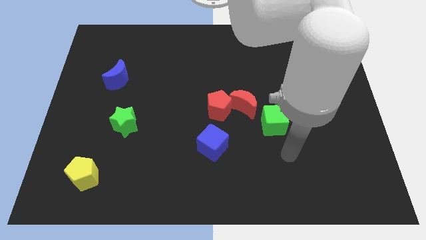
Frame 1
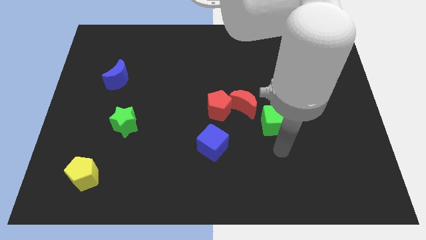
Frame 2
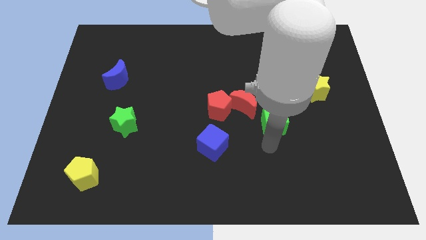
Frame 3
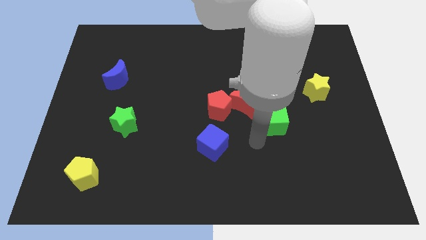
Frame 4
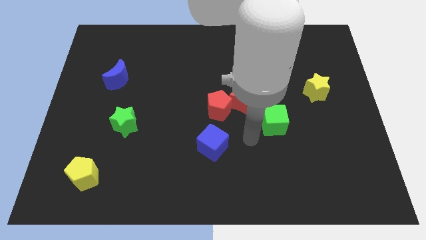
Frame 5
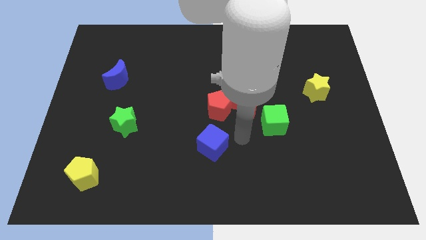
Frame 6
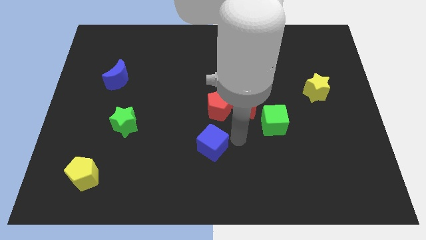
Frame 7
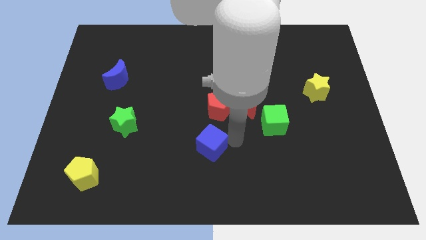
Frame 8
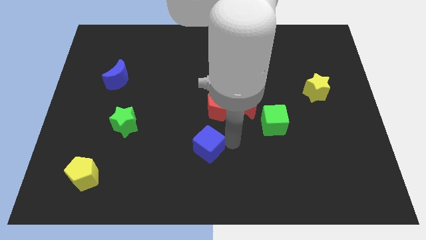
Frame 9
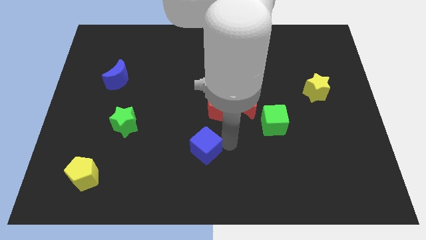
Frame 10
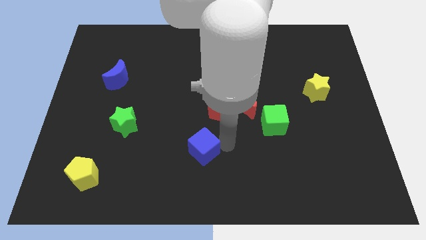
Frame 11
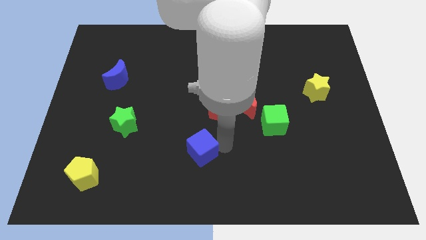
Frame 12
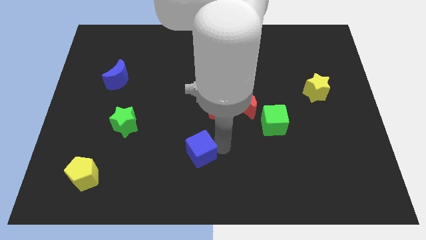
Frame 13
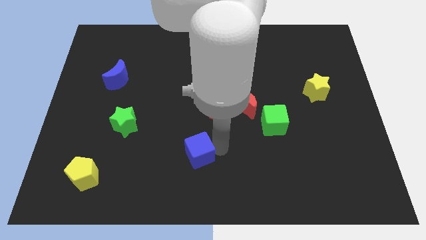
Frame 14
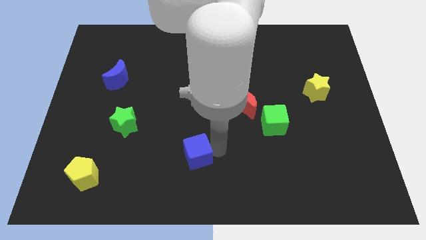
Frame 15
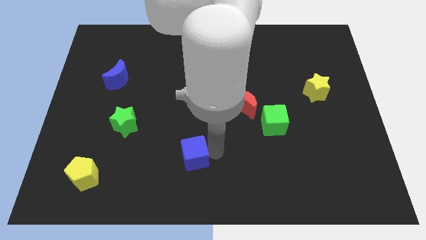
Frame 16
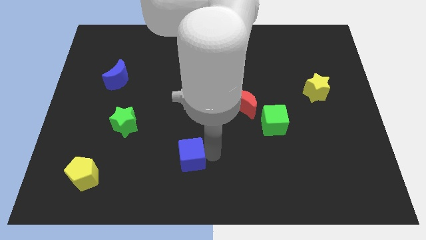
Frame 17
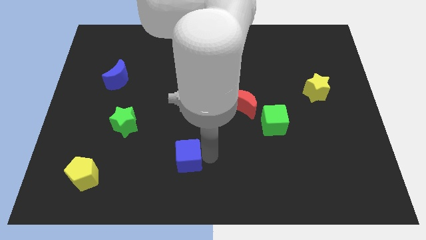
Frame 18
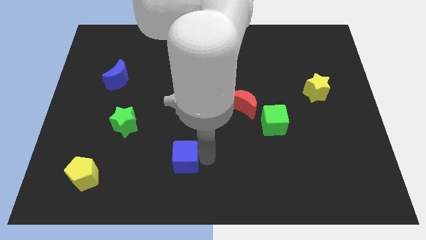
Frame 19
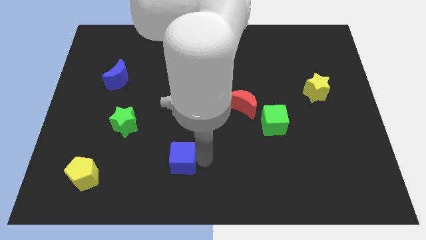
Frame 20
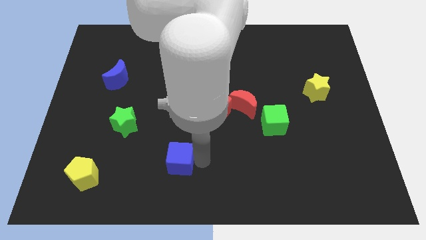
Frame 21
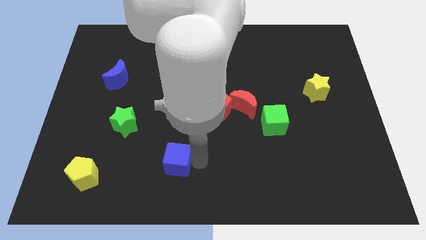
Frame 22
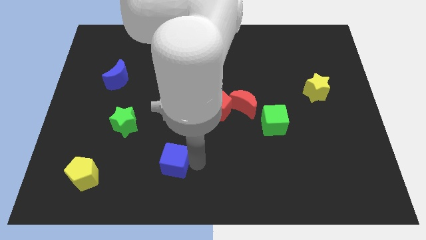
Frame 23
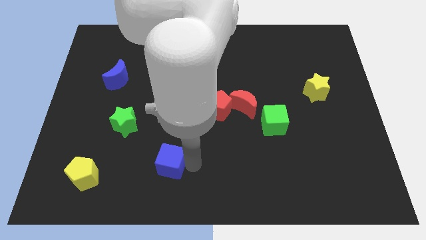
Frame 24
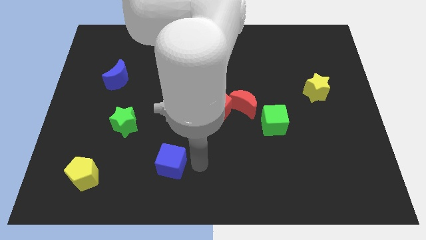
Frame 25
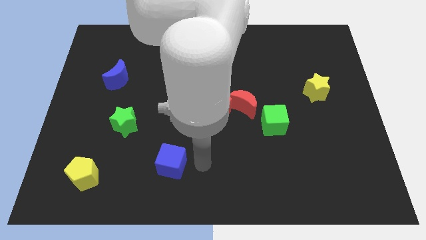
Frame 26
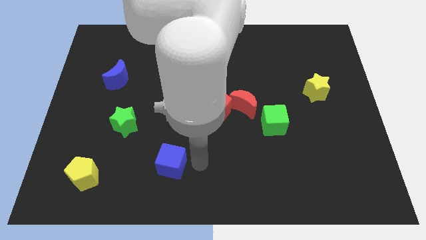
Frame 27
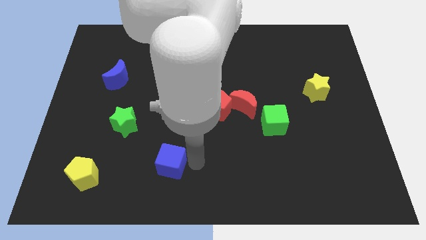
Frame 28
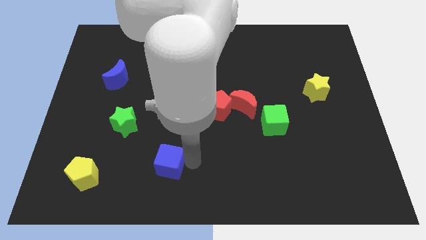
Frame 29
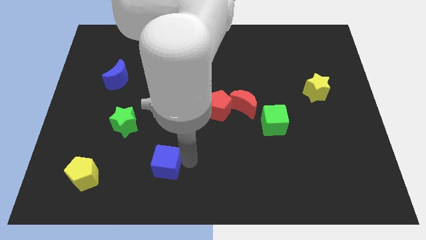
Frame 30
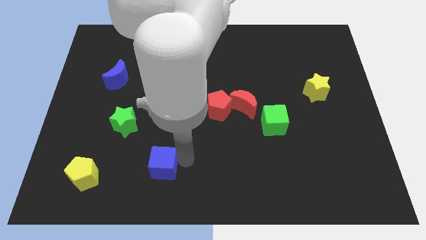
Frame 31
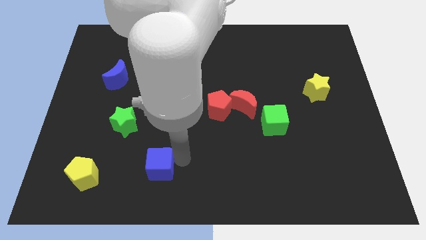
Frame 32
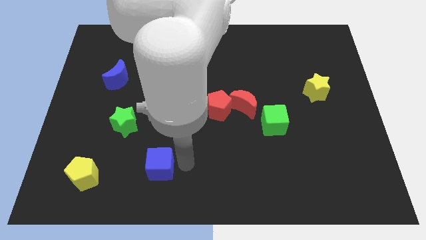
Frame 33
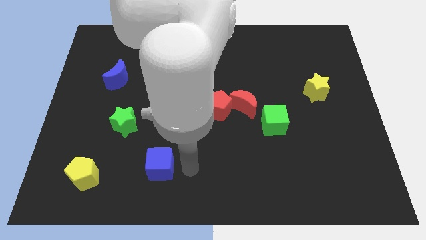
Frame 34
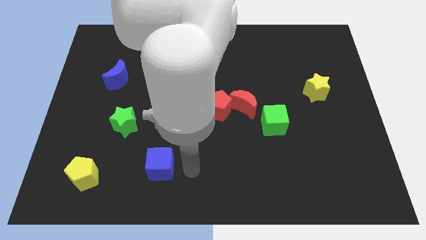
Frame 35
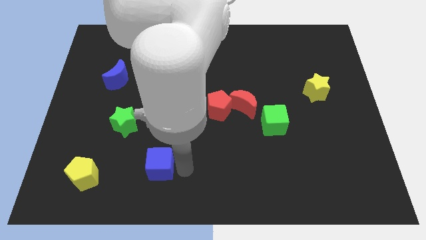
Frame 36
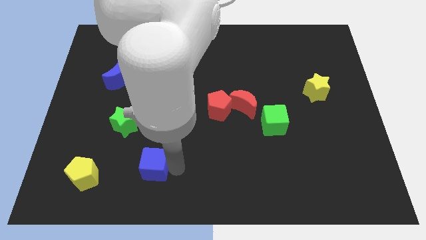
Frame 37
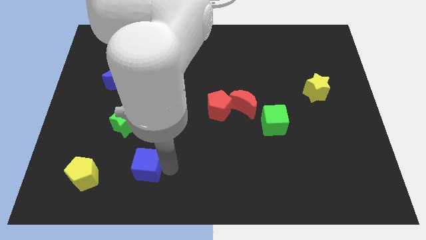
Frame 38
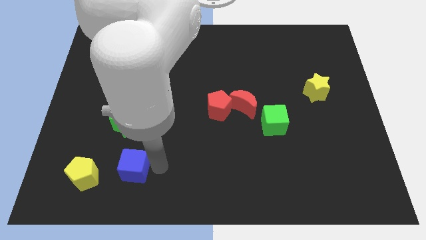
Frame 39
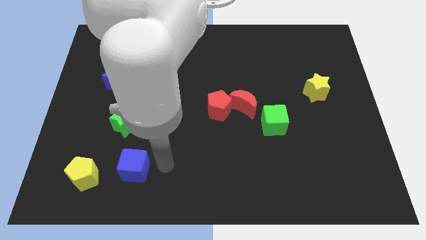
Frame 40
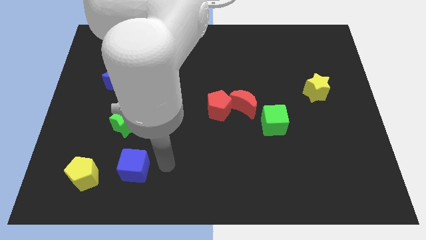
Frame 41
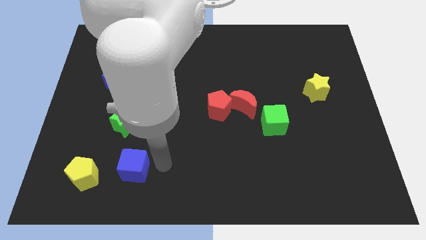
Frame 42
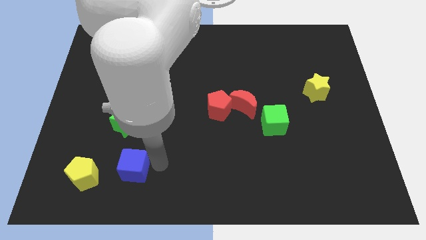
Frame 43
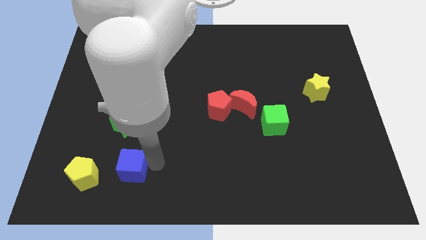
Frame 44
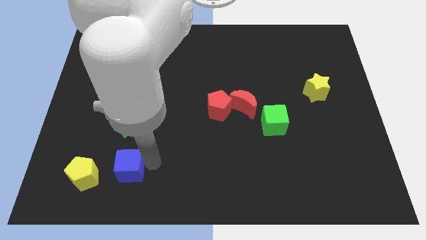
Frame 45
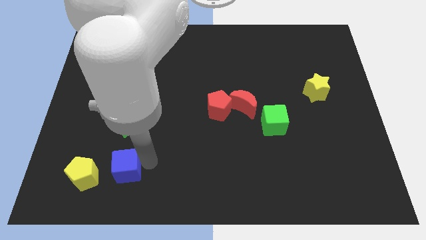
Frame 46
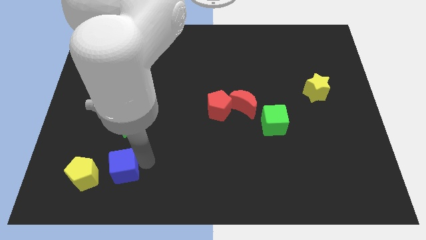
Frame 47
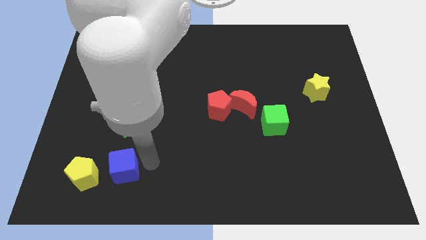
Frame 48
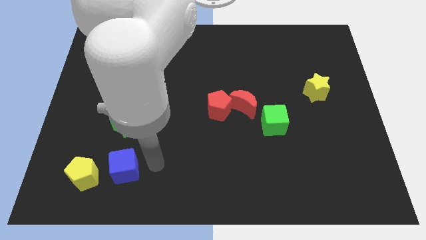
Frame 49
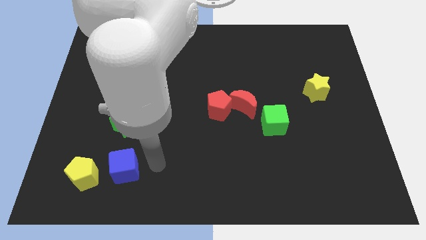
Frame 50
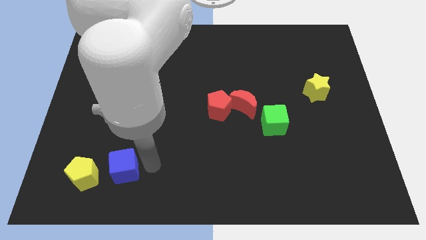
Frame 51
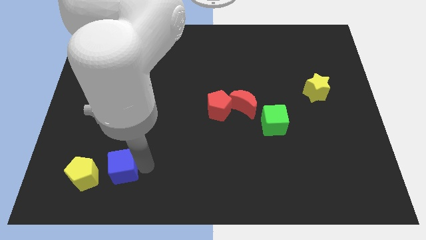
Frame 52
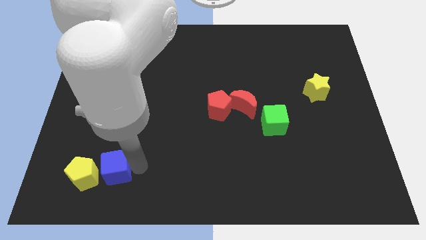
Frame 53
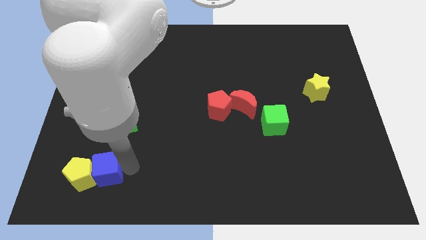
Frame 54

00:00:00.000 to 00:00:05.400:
slide the blue cube to the yellow pentagon

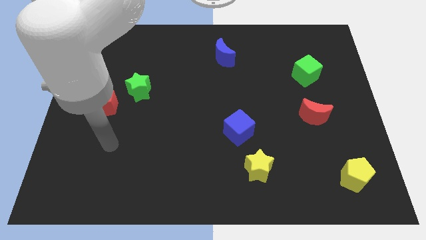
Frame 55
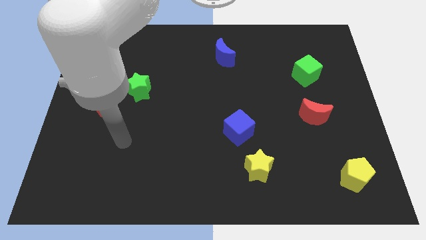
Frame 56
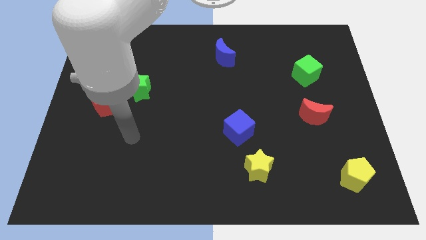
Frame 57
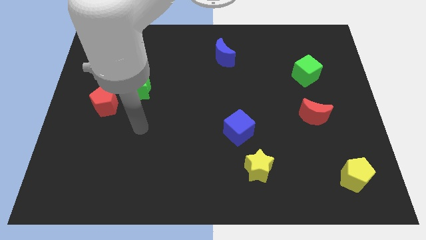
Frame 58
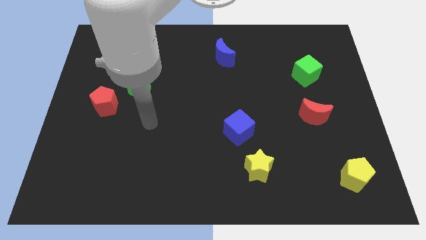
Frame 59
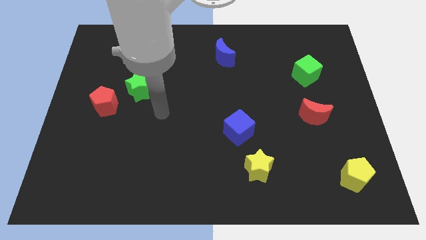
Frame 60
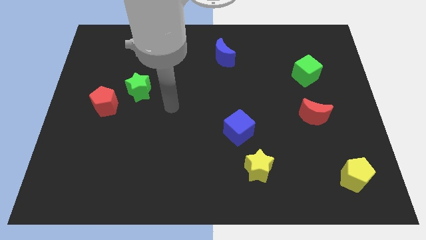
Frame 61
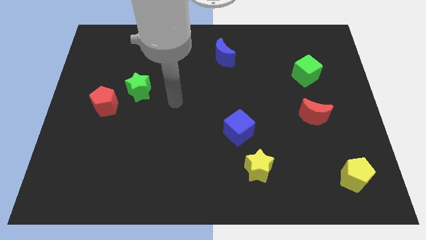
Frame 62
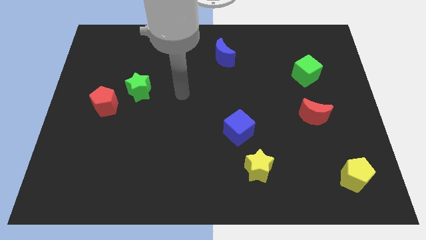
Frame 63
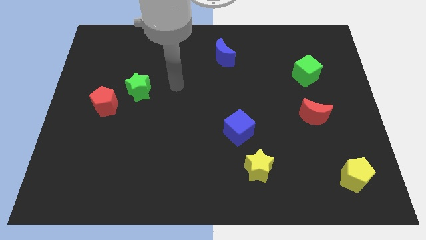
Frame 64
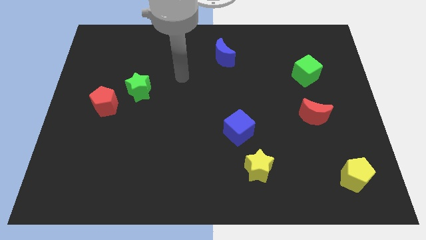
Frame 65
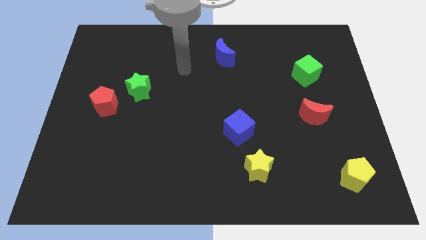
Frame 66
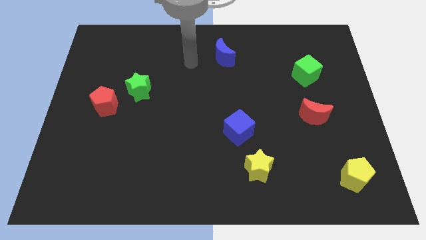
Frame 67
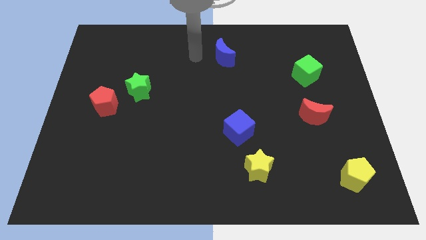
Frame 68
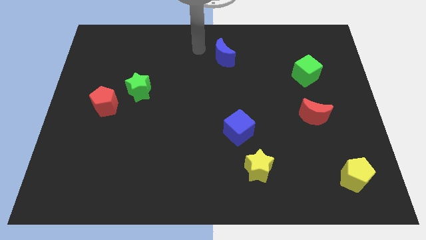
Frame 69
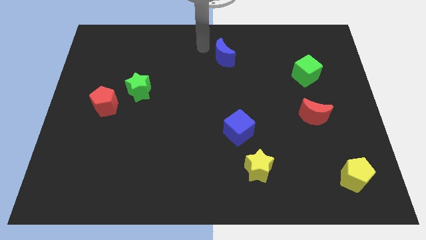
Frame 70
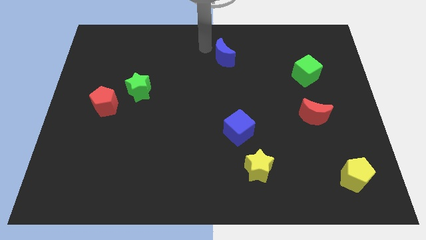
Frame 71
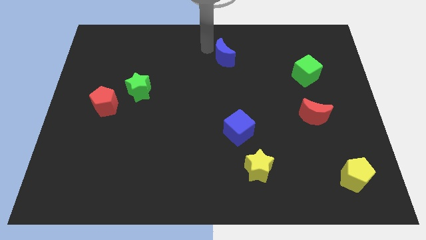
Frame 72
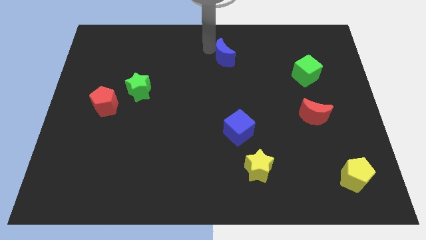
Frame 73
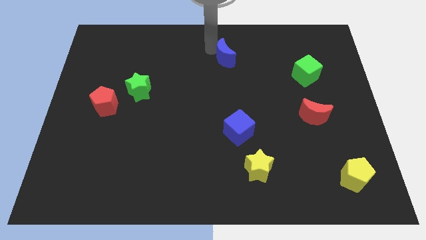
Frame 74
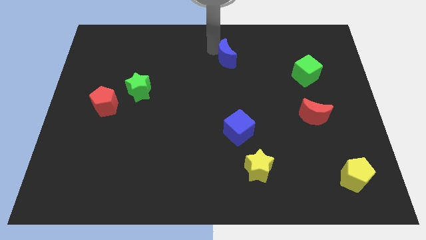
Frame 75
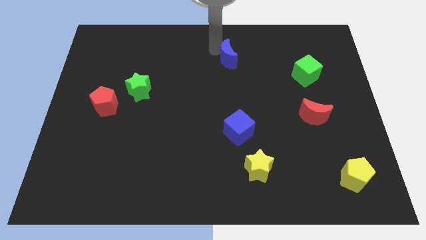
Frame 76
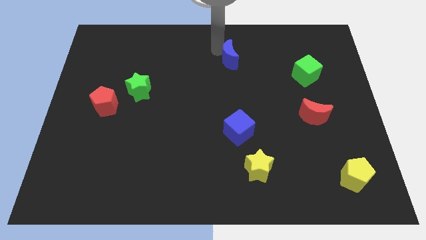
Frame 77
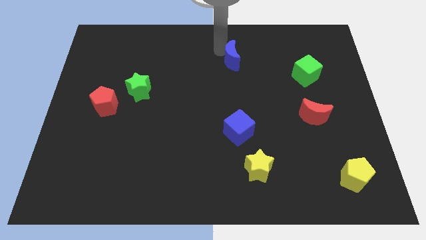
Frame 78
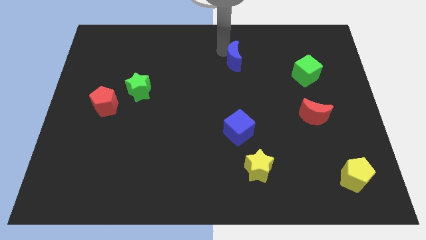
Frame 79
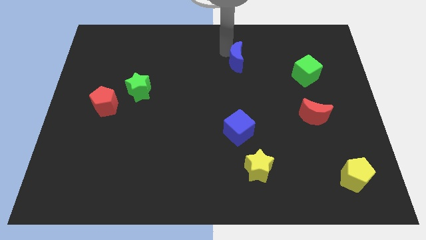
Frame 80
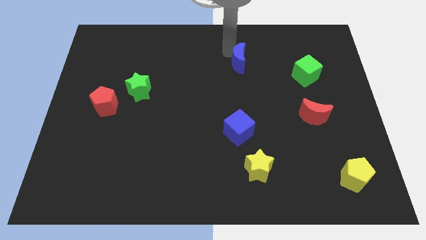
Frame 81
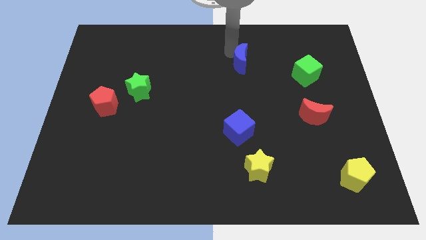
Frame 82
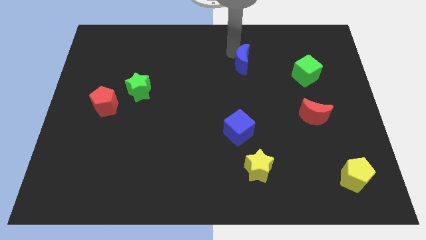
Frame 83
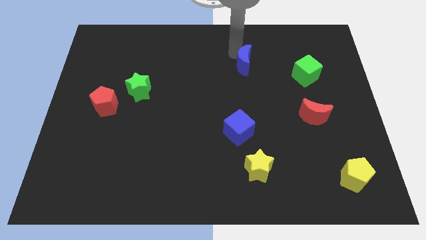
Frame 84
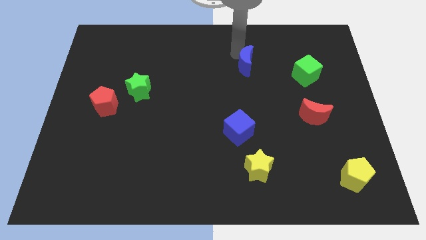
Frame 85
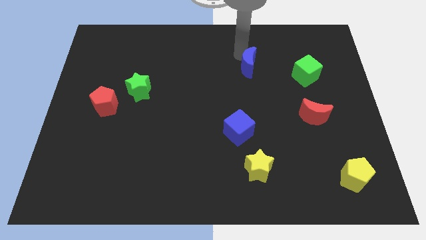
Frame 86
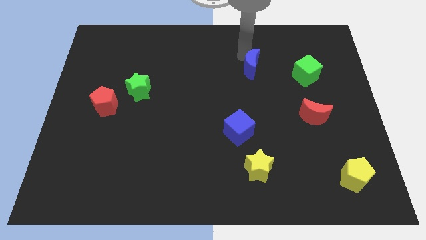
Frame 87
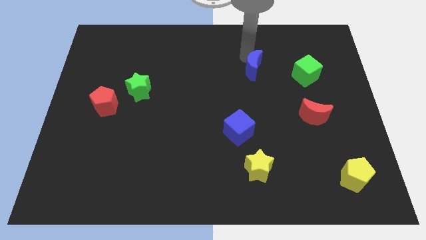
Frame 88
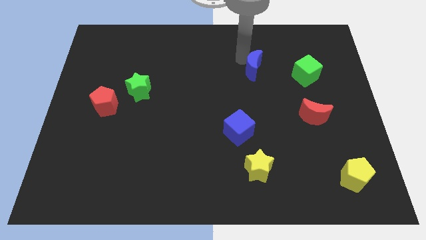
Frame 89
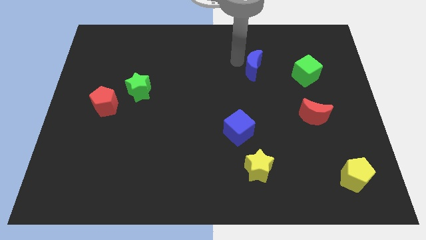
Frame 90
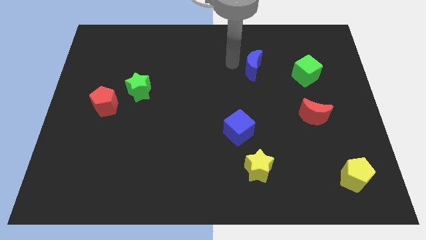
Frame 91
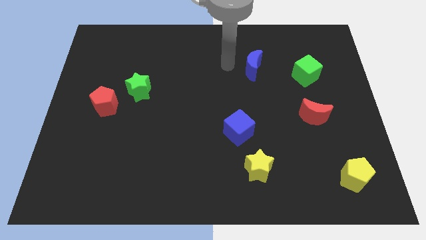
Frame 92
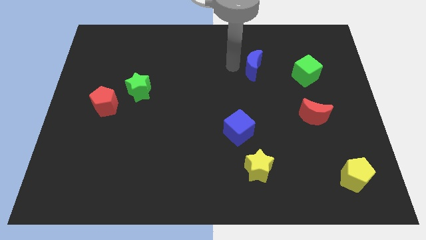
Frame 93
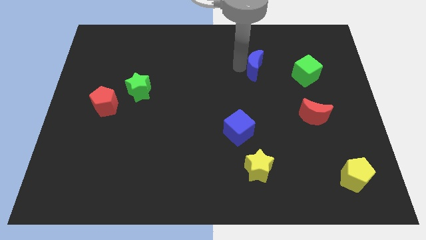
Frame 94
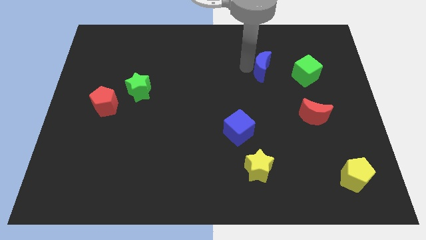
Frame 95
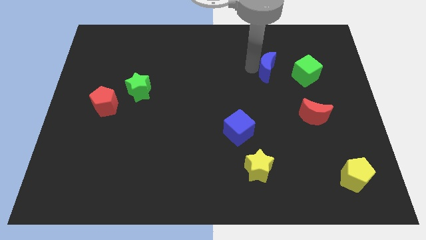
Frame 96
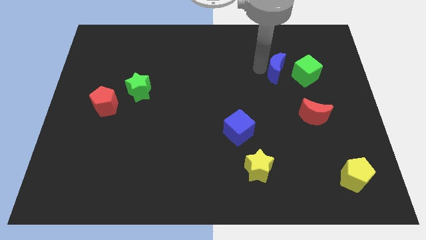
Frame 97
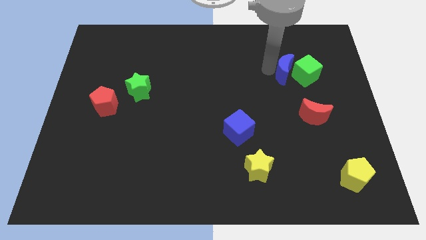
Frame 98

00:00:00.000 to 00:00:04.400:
push the blue moon next to the green cube
